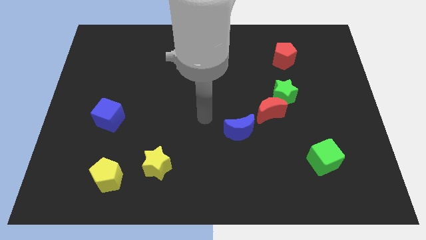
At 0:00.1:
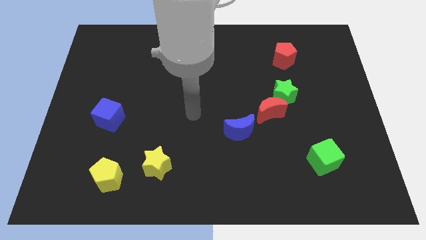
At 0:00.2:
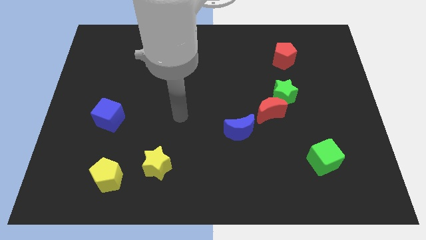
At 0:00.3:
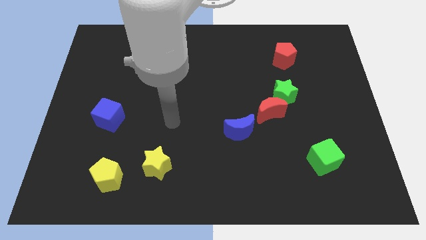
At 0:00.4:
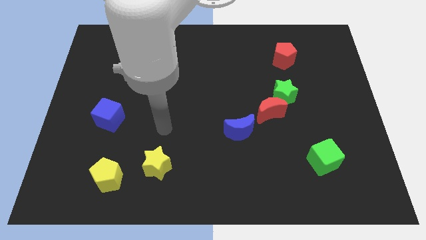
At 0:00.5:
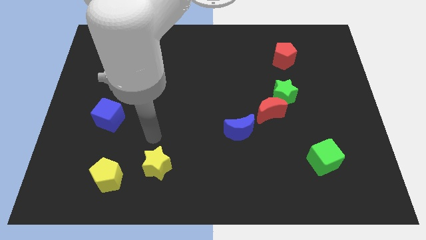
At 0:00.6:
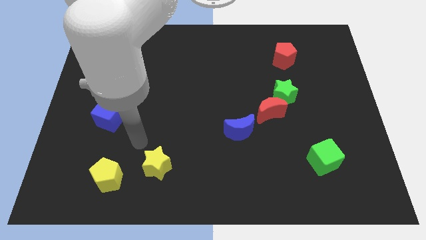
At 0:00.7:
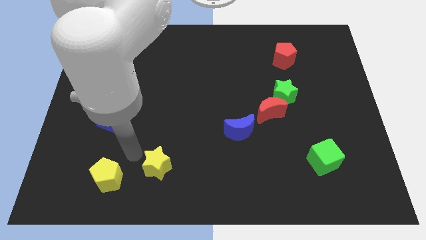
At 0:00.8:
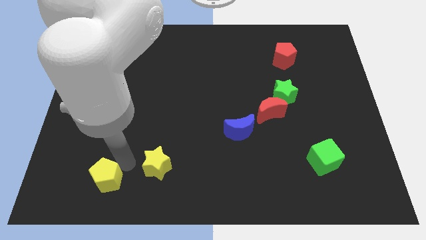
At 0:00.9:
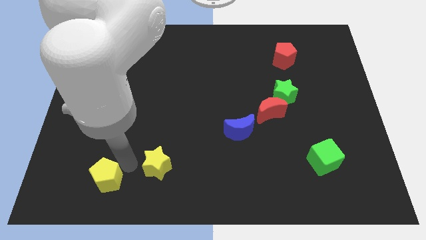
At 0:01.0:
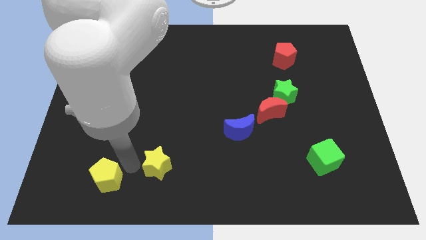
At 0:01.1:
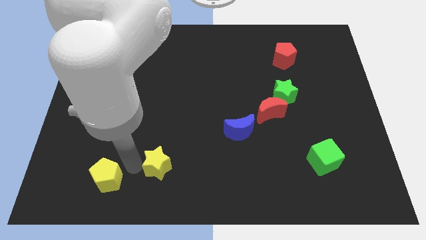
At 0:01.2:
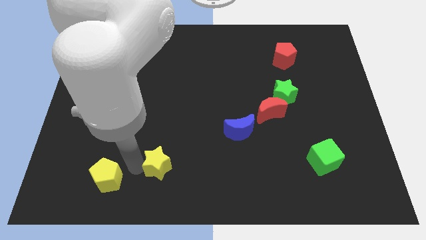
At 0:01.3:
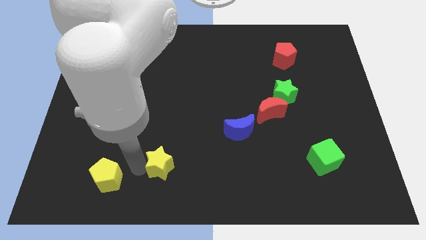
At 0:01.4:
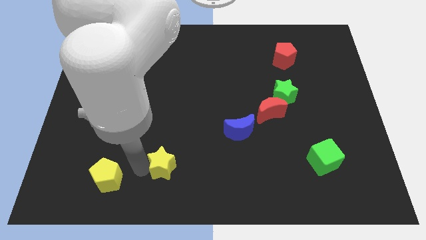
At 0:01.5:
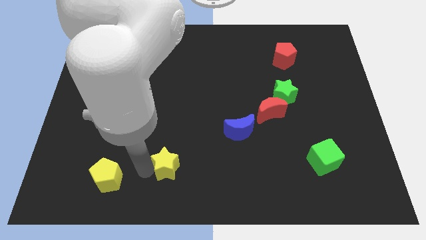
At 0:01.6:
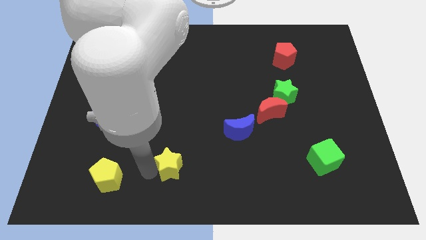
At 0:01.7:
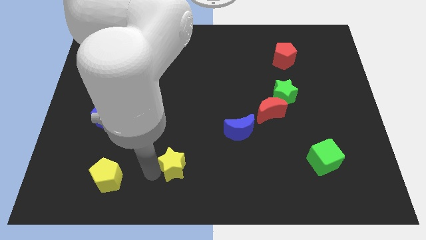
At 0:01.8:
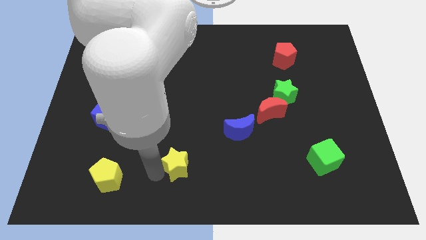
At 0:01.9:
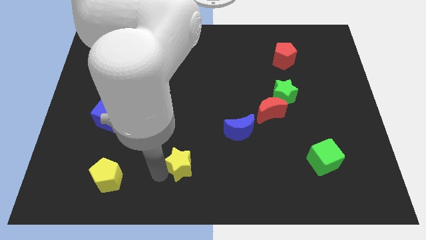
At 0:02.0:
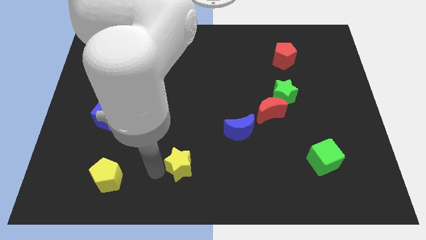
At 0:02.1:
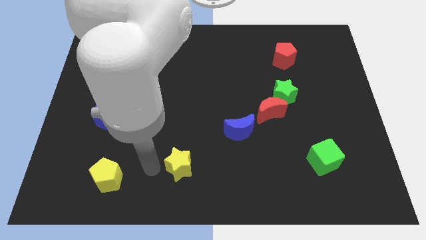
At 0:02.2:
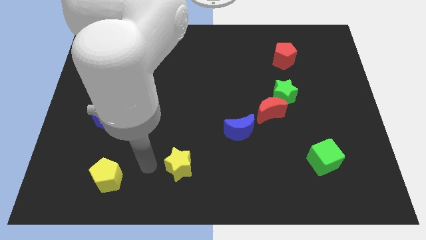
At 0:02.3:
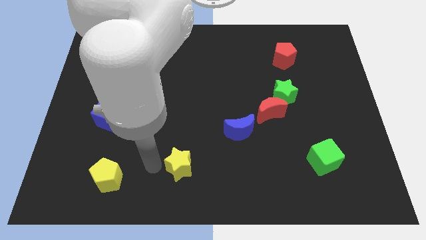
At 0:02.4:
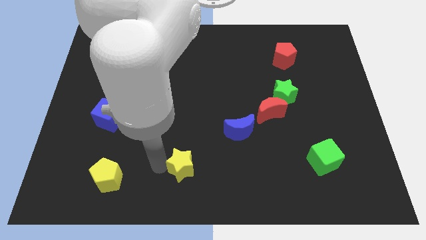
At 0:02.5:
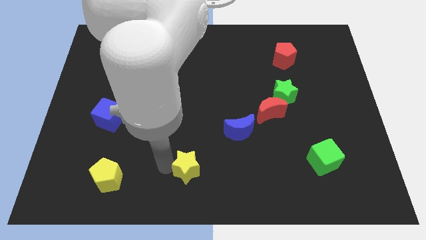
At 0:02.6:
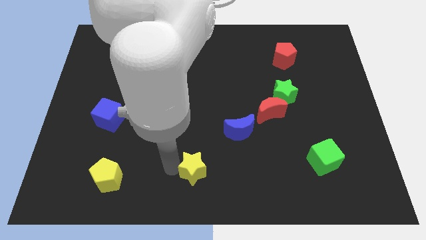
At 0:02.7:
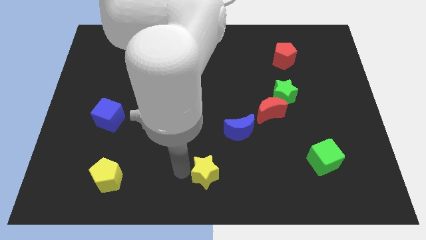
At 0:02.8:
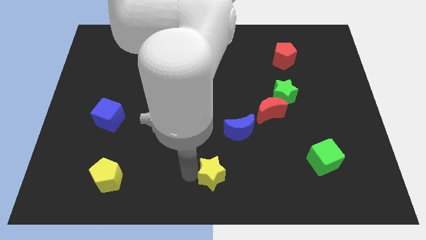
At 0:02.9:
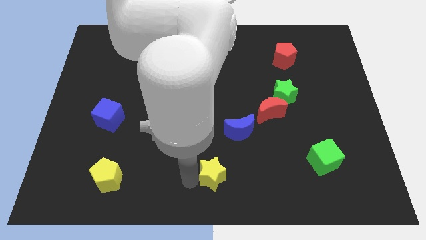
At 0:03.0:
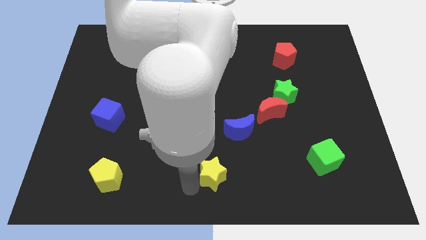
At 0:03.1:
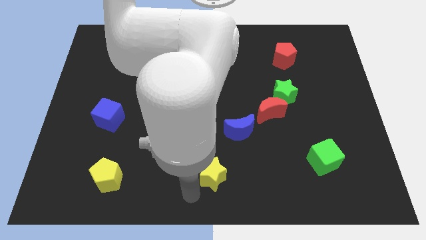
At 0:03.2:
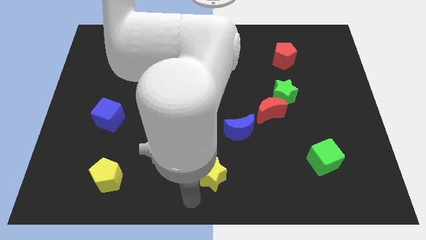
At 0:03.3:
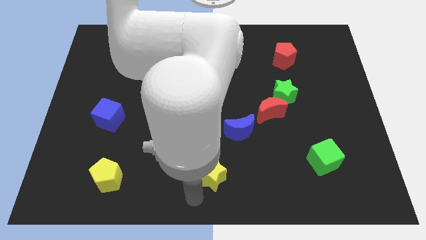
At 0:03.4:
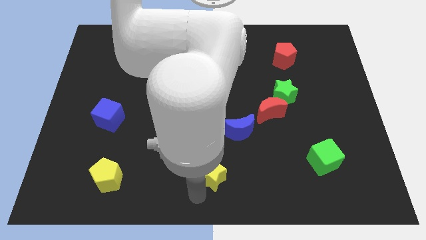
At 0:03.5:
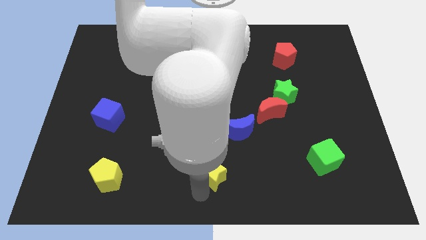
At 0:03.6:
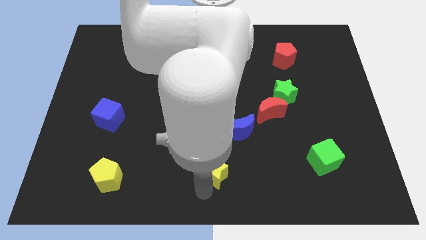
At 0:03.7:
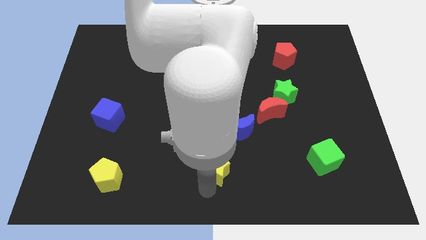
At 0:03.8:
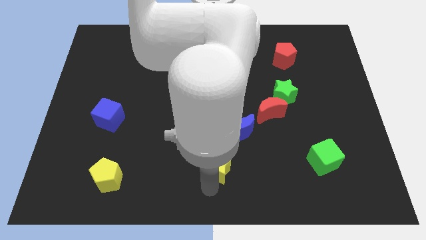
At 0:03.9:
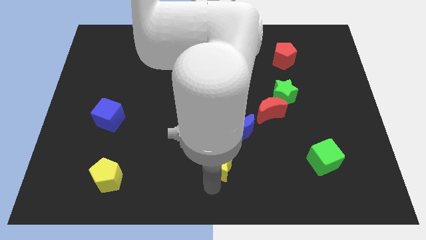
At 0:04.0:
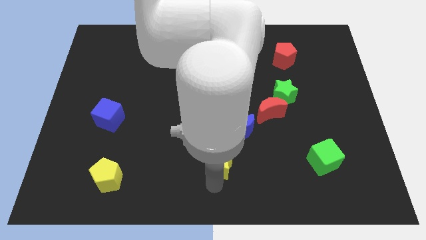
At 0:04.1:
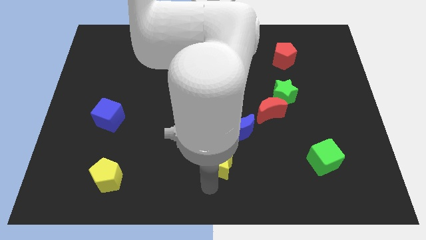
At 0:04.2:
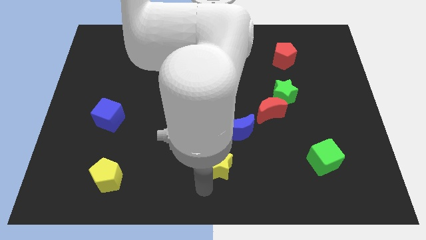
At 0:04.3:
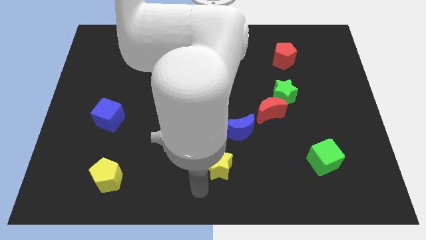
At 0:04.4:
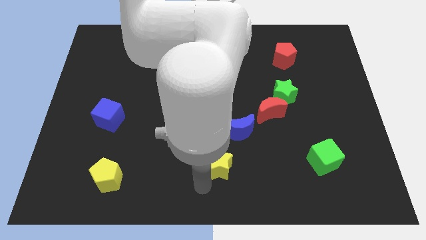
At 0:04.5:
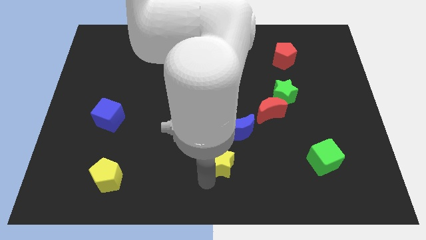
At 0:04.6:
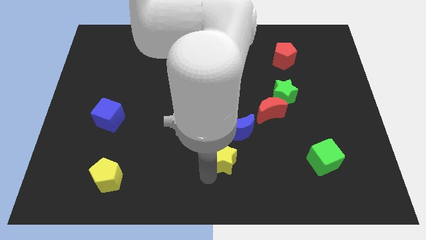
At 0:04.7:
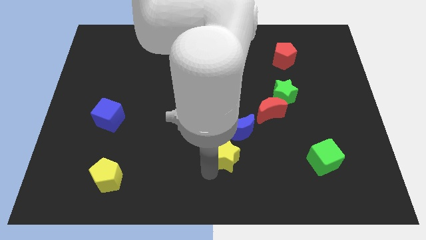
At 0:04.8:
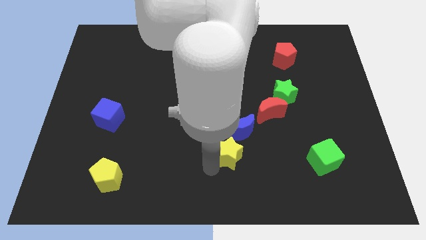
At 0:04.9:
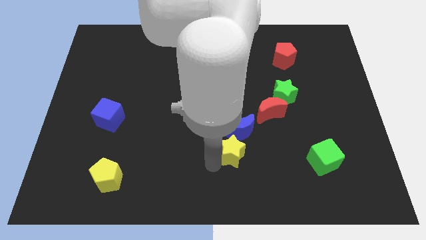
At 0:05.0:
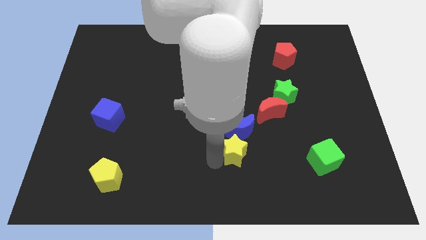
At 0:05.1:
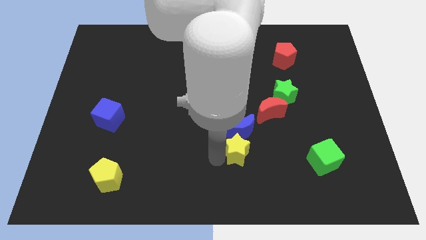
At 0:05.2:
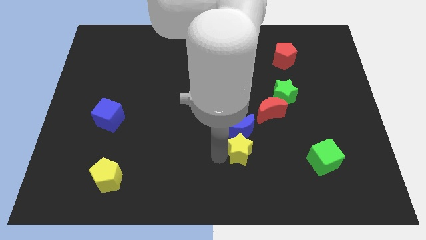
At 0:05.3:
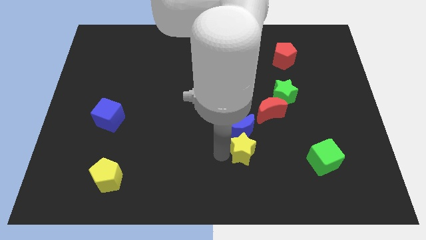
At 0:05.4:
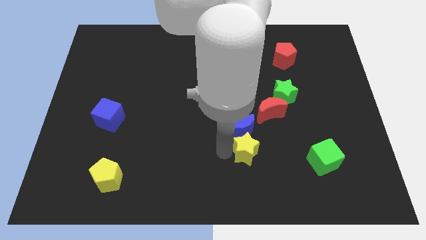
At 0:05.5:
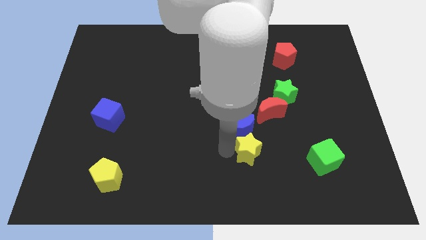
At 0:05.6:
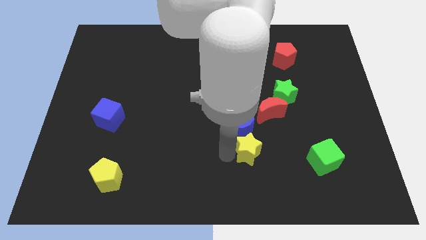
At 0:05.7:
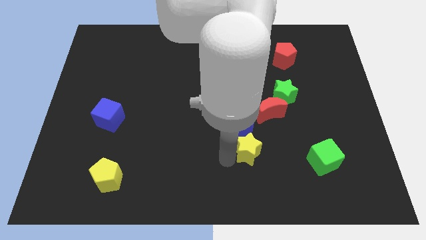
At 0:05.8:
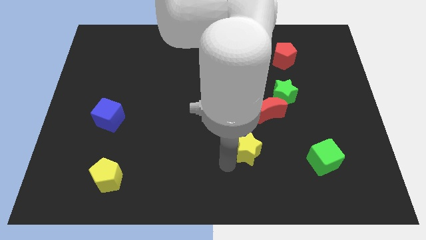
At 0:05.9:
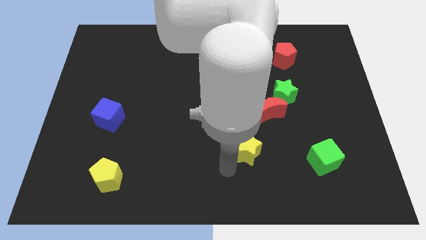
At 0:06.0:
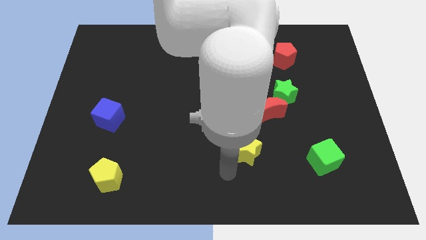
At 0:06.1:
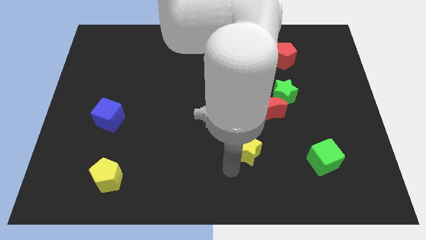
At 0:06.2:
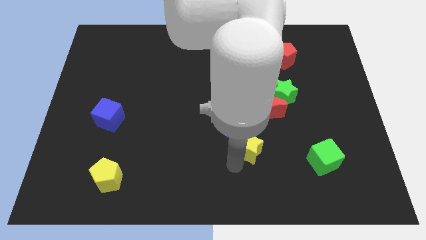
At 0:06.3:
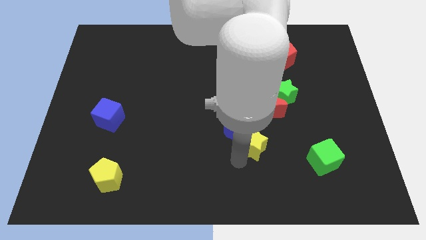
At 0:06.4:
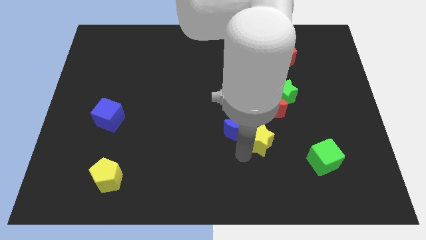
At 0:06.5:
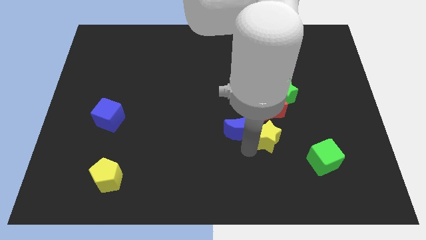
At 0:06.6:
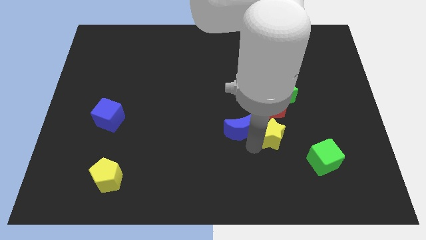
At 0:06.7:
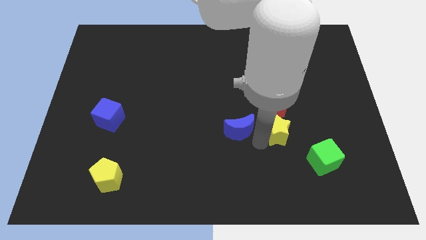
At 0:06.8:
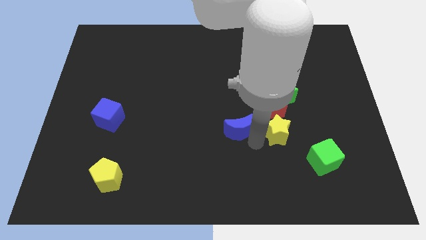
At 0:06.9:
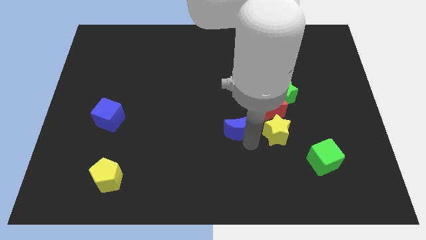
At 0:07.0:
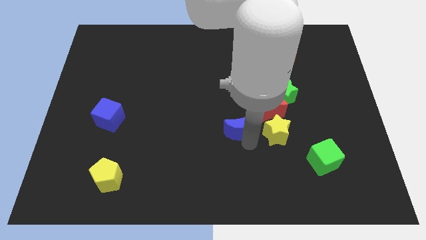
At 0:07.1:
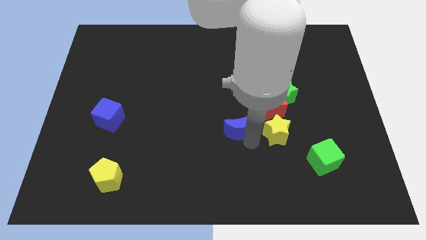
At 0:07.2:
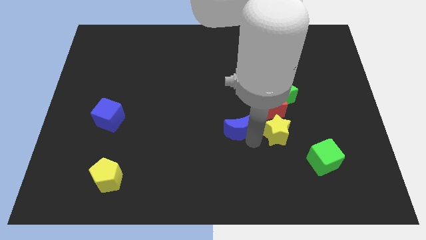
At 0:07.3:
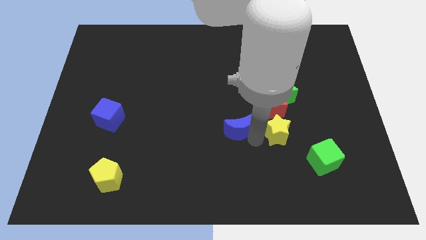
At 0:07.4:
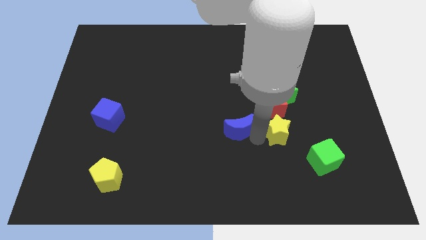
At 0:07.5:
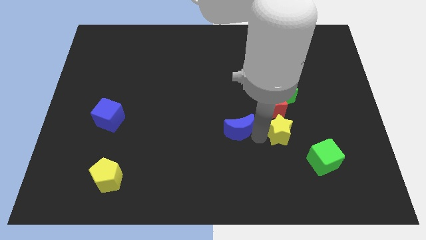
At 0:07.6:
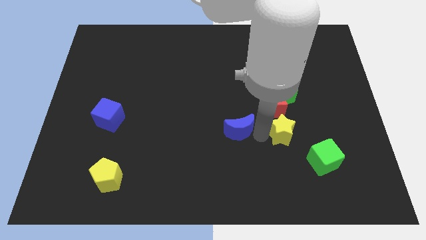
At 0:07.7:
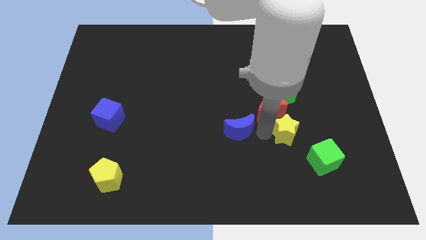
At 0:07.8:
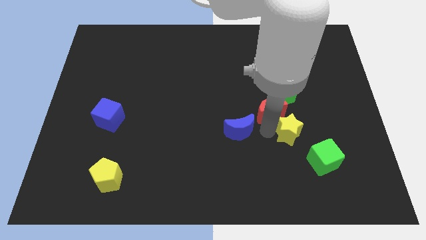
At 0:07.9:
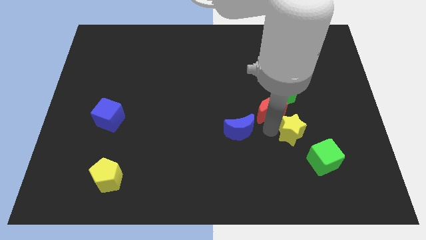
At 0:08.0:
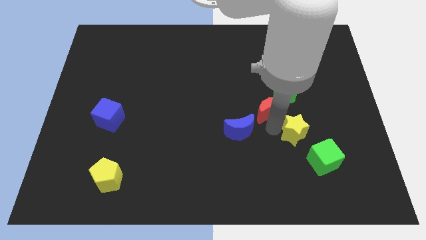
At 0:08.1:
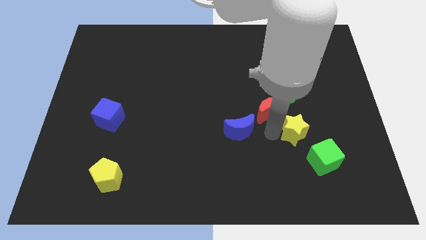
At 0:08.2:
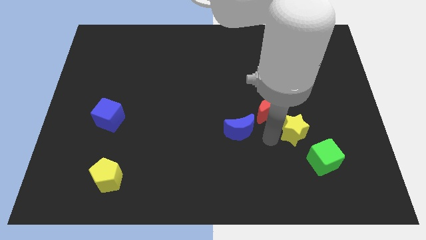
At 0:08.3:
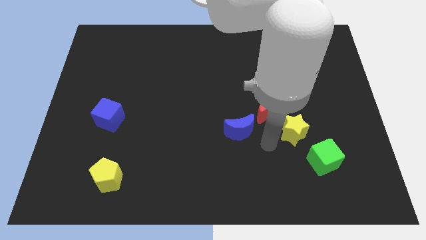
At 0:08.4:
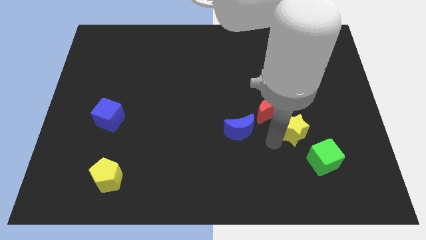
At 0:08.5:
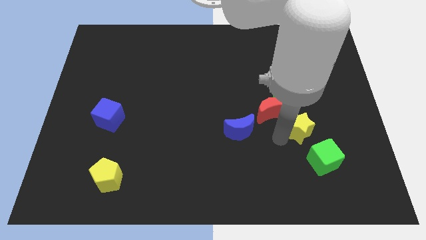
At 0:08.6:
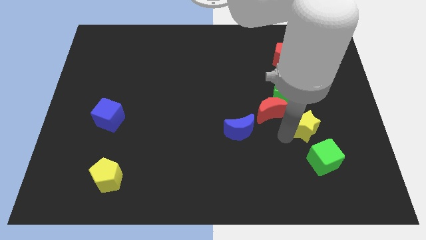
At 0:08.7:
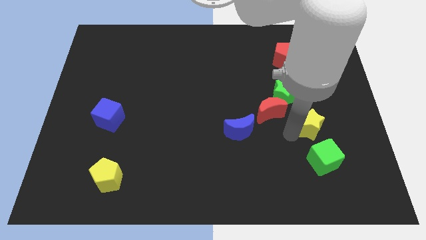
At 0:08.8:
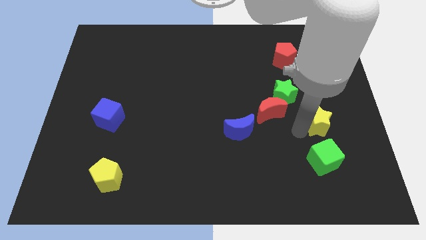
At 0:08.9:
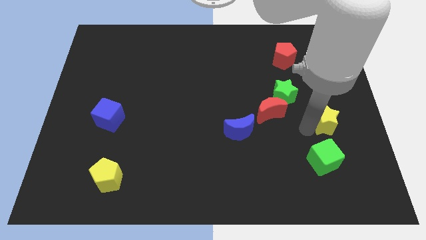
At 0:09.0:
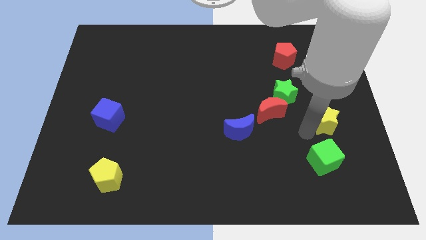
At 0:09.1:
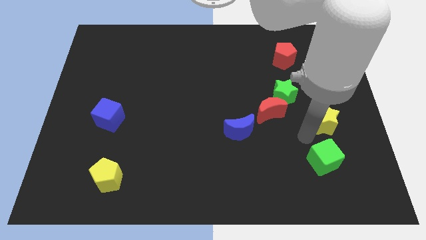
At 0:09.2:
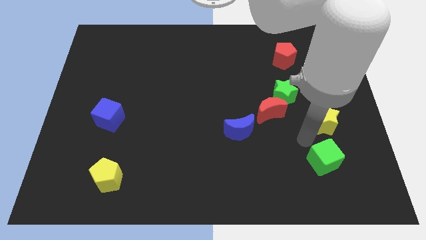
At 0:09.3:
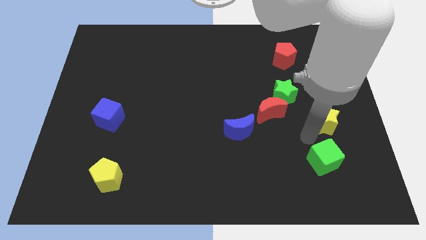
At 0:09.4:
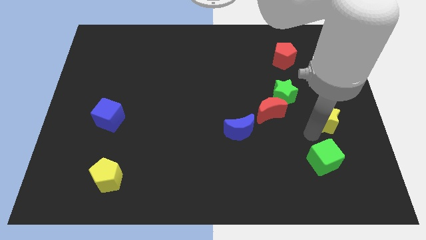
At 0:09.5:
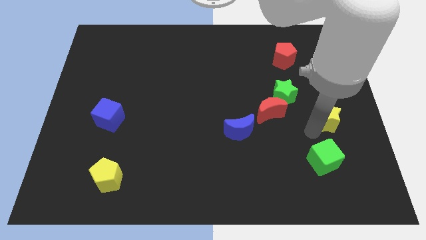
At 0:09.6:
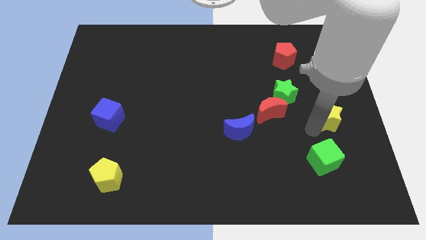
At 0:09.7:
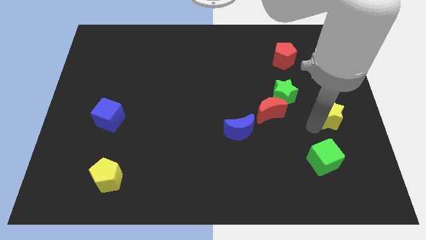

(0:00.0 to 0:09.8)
push the yellow star to the right side of the board
